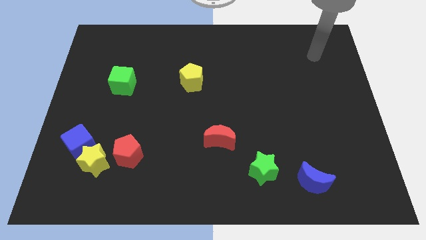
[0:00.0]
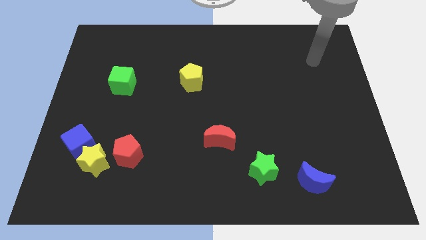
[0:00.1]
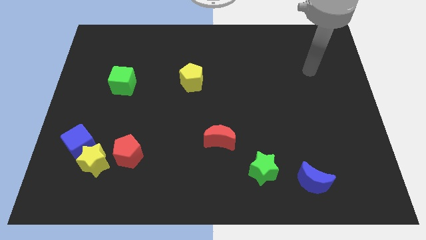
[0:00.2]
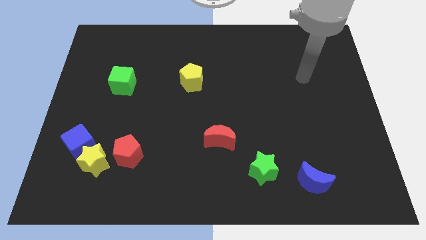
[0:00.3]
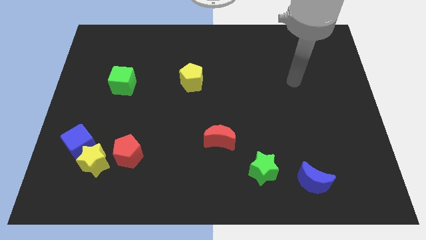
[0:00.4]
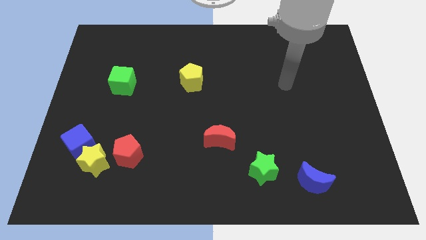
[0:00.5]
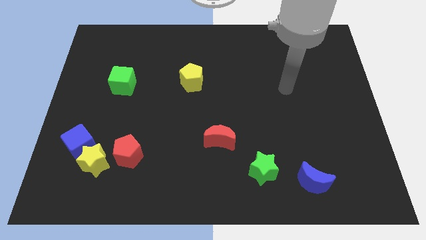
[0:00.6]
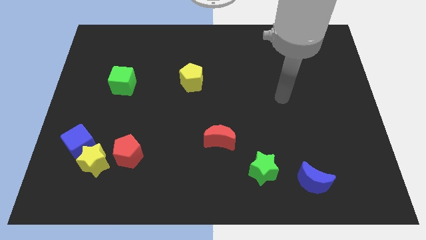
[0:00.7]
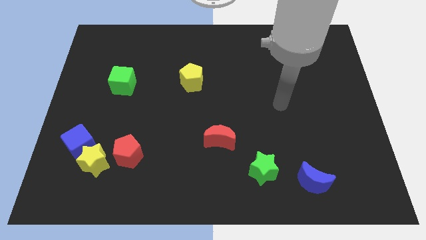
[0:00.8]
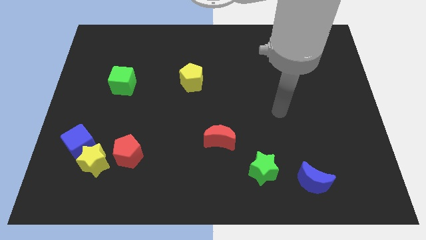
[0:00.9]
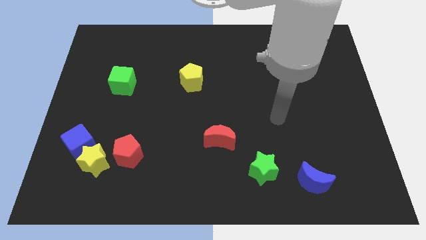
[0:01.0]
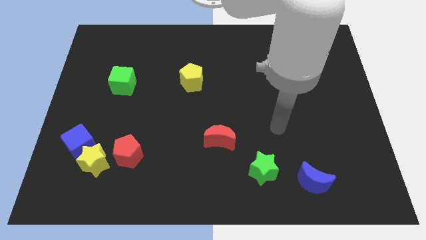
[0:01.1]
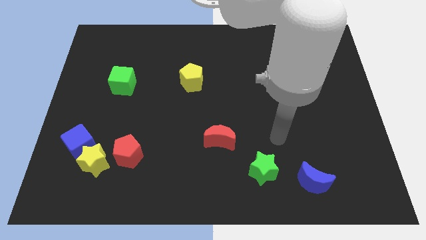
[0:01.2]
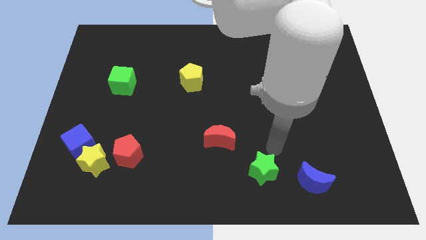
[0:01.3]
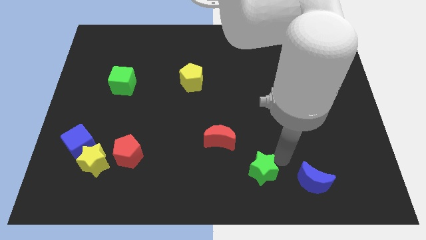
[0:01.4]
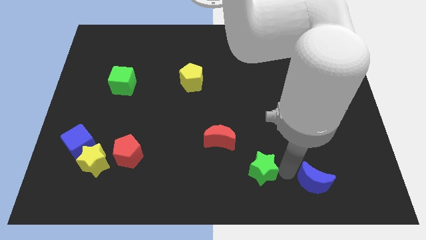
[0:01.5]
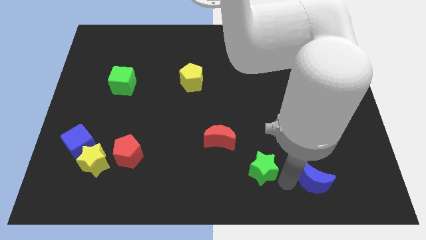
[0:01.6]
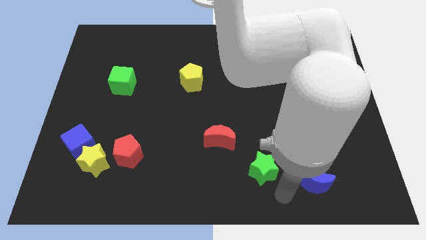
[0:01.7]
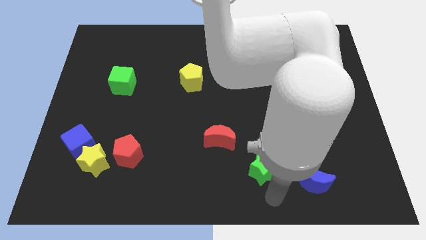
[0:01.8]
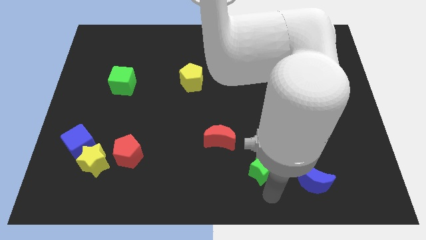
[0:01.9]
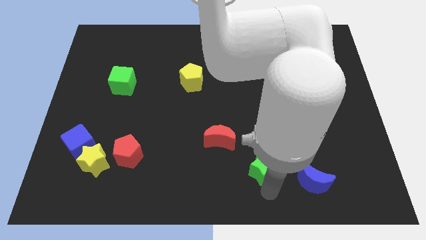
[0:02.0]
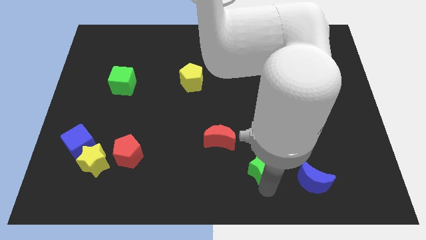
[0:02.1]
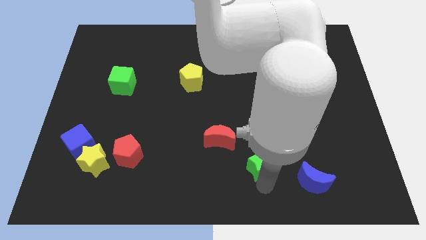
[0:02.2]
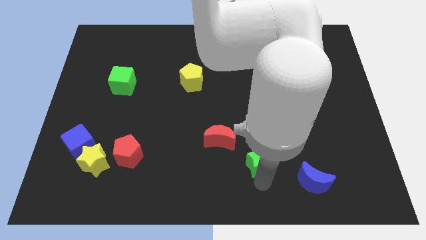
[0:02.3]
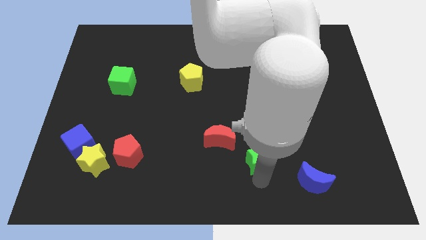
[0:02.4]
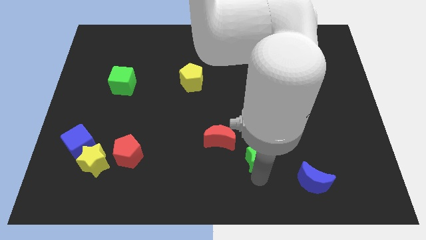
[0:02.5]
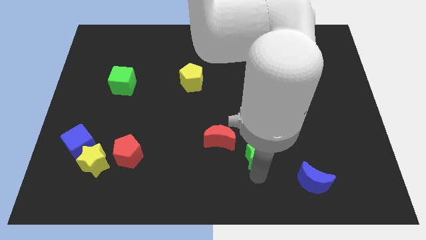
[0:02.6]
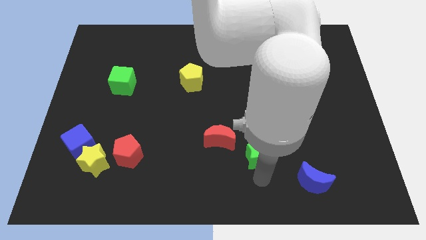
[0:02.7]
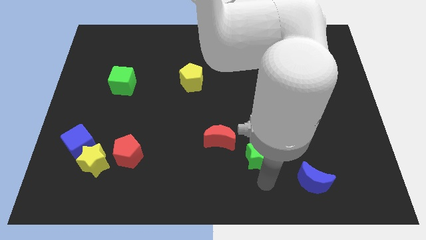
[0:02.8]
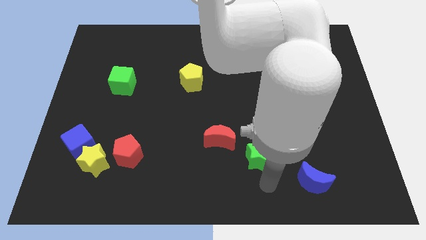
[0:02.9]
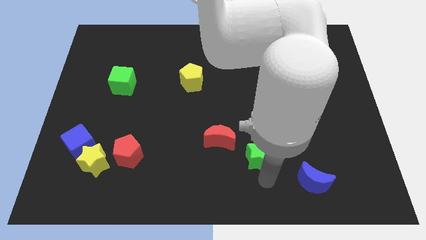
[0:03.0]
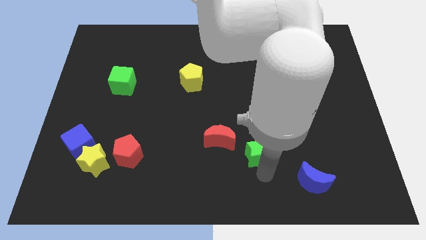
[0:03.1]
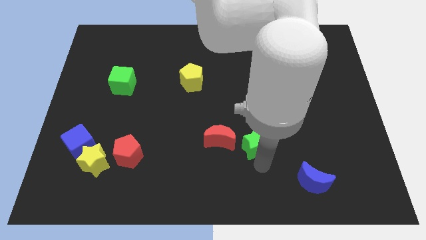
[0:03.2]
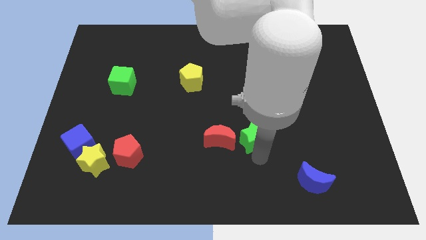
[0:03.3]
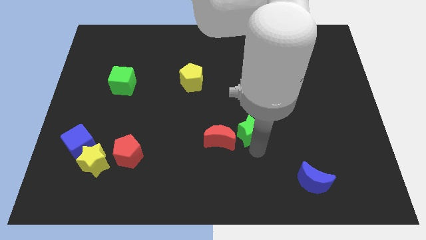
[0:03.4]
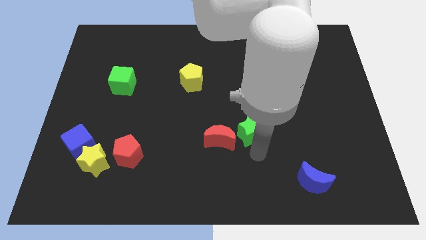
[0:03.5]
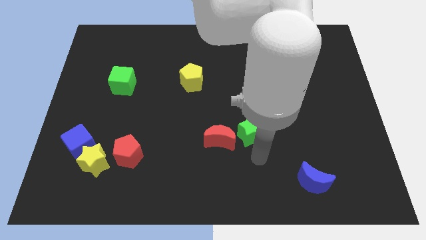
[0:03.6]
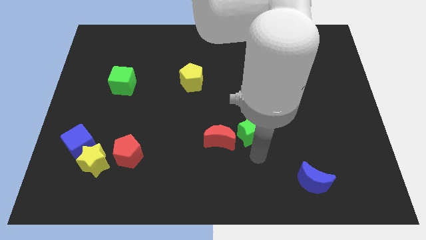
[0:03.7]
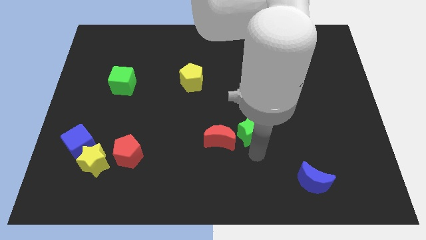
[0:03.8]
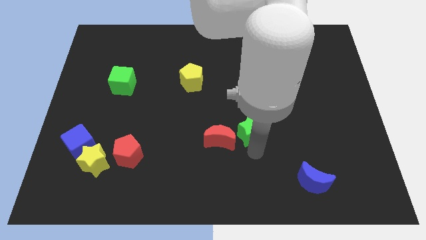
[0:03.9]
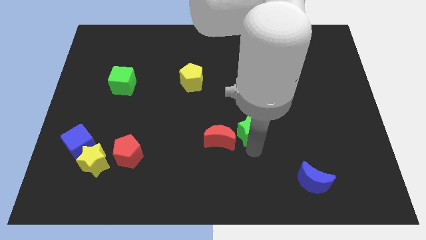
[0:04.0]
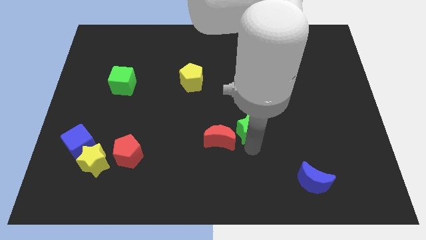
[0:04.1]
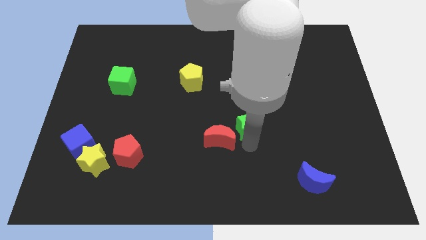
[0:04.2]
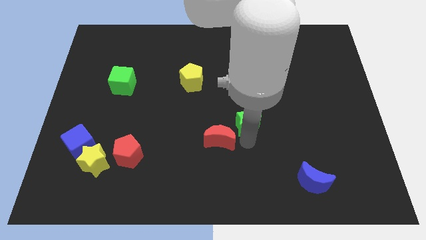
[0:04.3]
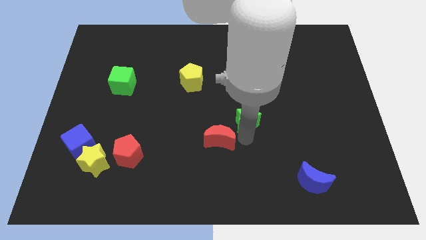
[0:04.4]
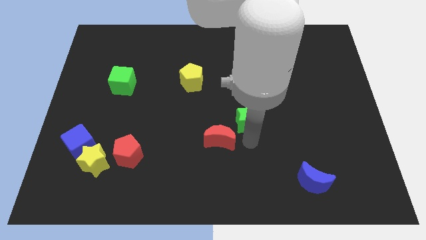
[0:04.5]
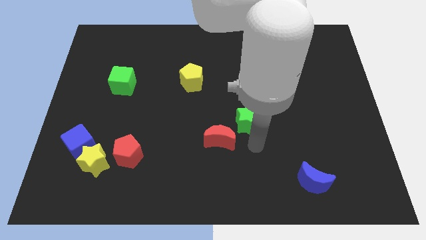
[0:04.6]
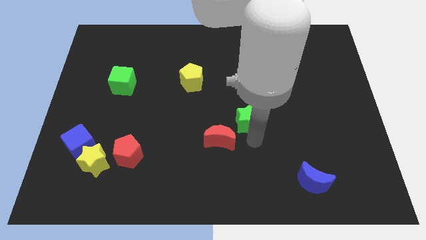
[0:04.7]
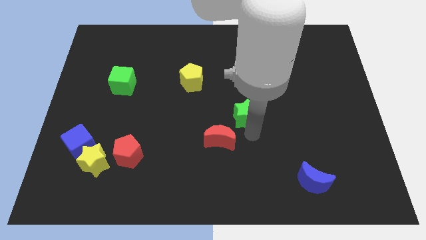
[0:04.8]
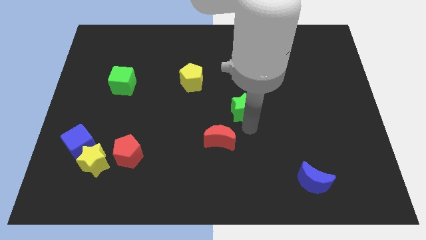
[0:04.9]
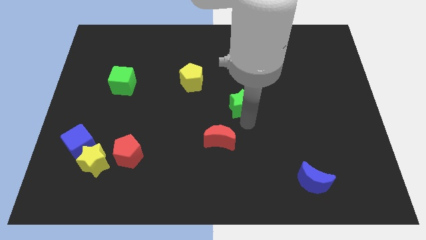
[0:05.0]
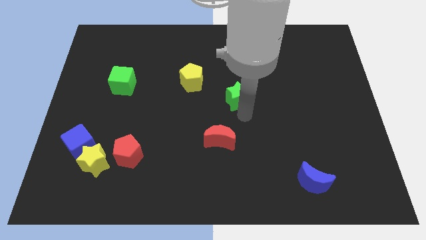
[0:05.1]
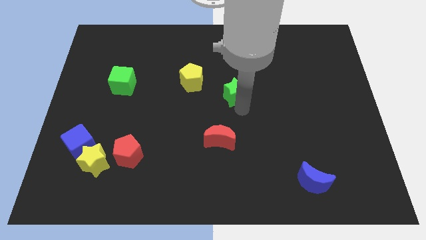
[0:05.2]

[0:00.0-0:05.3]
push the green star right of the yellow pentagon

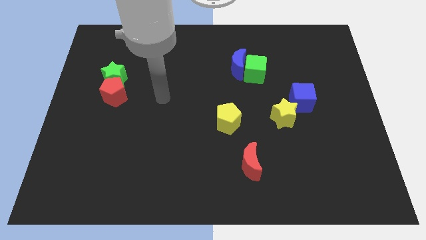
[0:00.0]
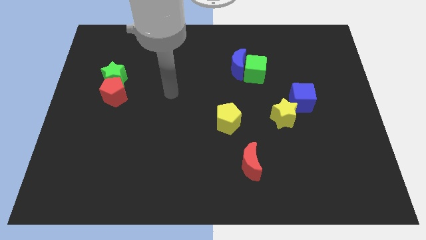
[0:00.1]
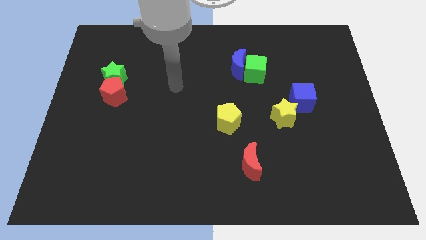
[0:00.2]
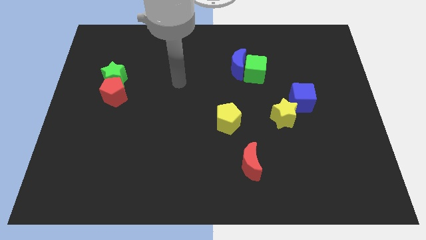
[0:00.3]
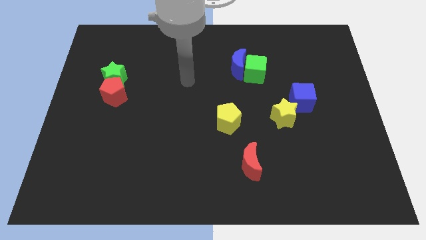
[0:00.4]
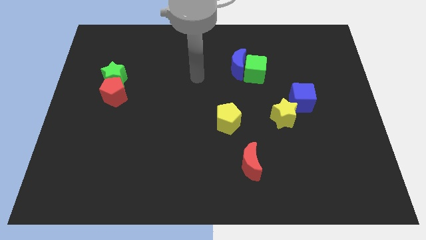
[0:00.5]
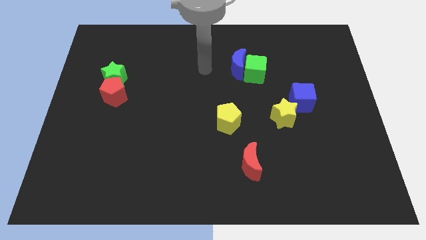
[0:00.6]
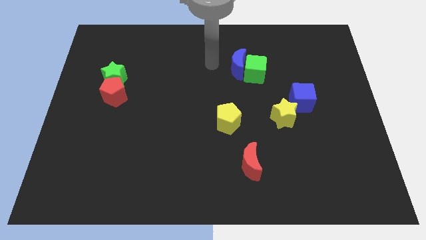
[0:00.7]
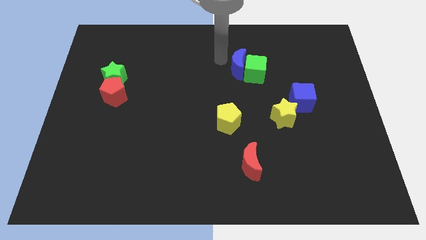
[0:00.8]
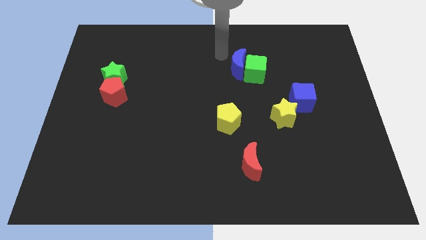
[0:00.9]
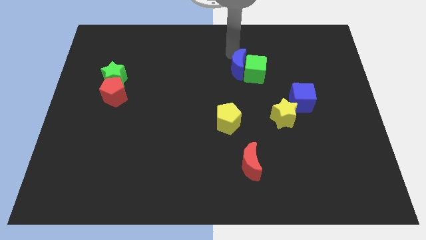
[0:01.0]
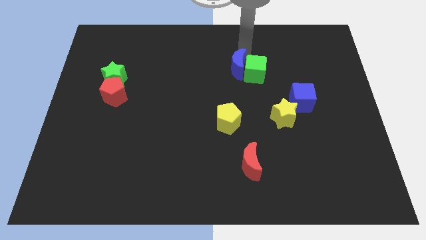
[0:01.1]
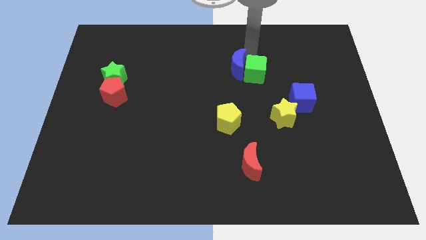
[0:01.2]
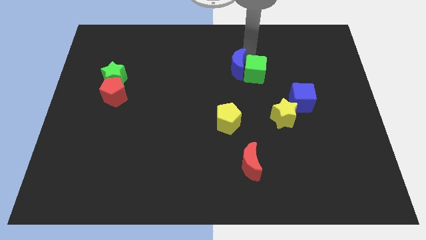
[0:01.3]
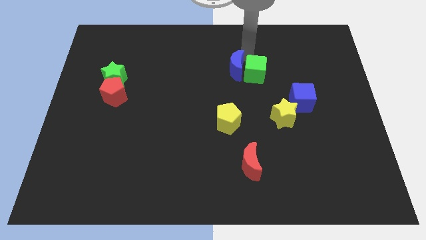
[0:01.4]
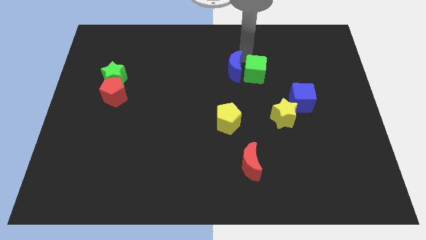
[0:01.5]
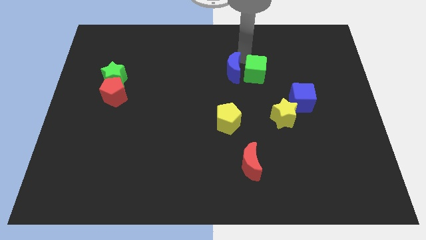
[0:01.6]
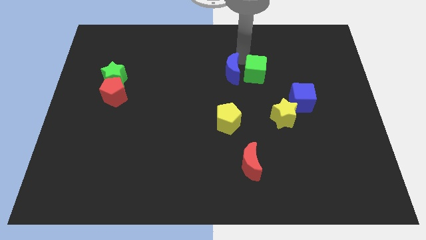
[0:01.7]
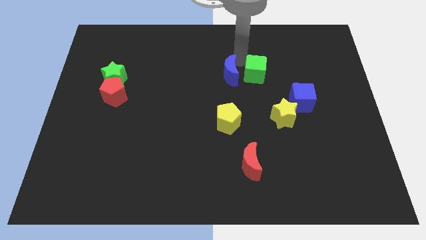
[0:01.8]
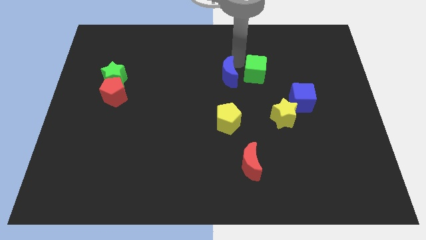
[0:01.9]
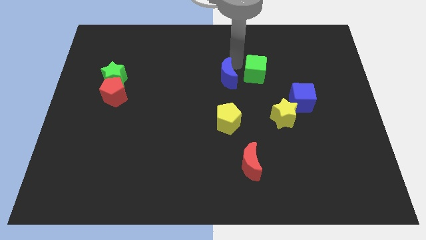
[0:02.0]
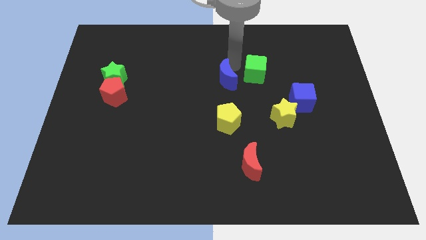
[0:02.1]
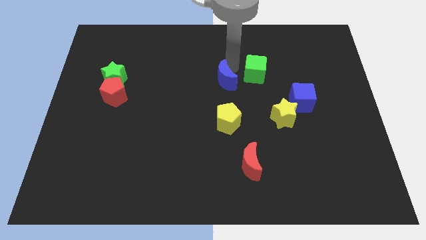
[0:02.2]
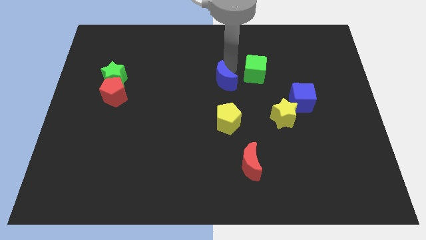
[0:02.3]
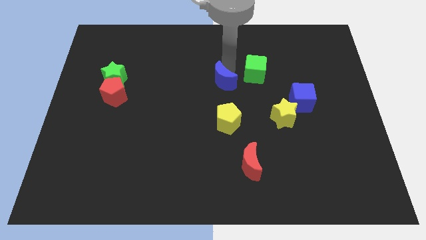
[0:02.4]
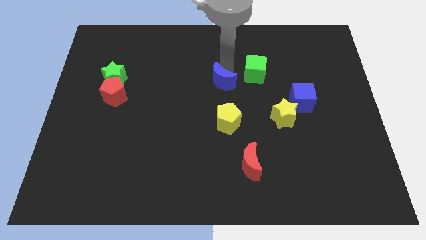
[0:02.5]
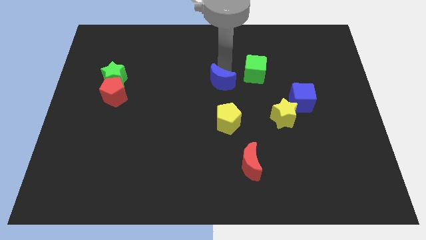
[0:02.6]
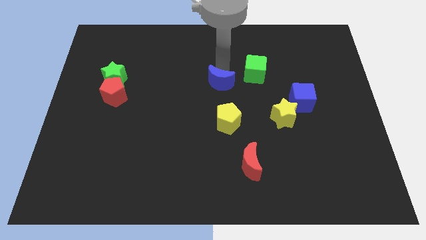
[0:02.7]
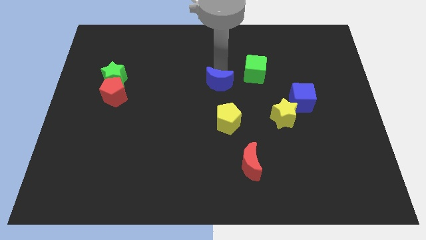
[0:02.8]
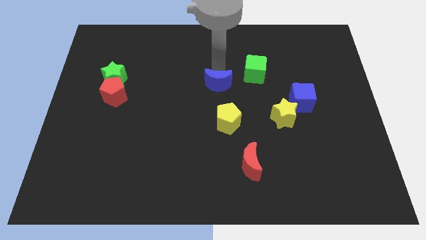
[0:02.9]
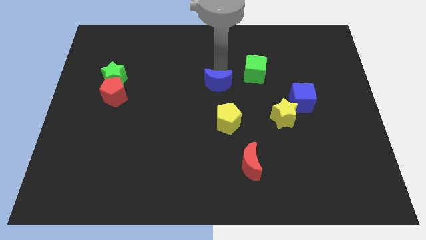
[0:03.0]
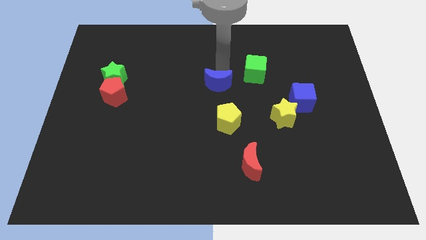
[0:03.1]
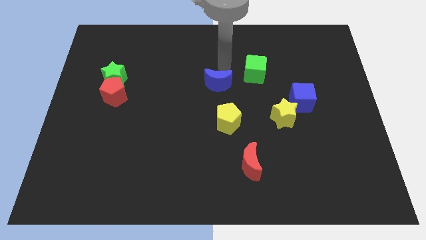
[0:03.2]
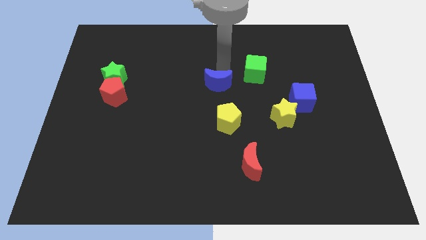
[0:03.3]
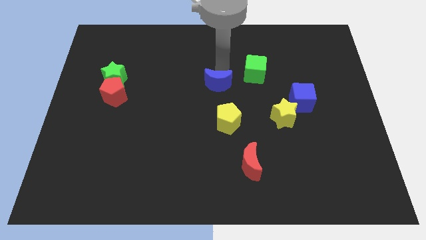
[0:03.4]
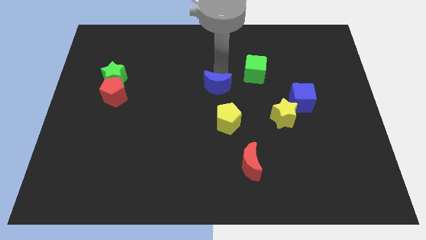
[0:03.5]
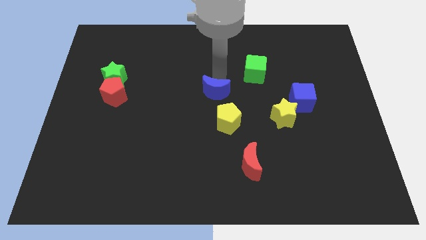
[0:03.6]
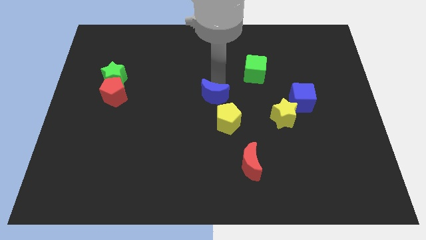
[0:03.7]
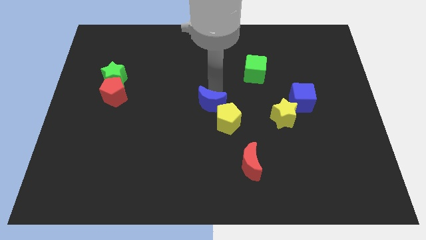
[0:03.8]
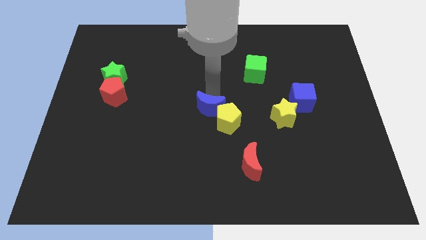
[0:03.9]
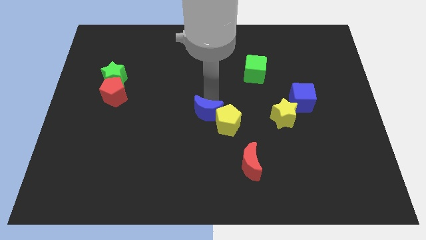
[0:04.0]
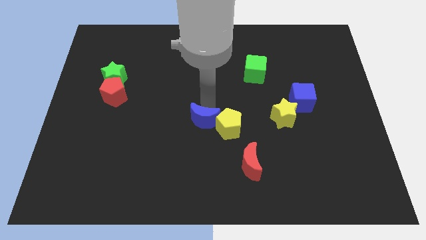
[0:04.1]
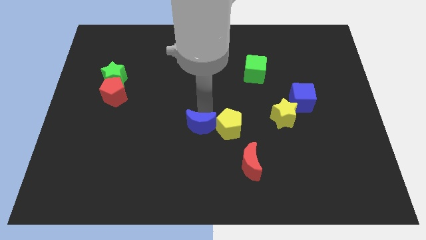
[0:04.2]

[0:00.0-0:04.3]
slide the blue moon diagonally down and to the left of the yellow pentagon
